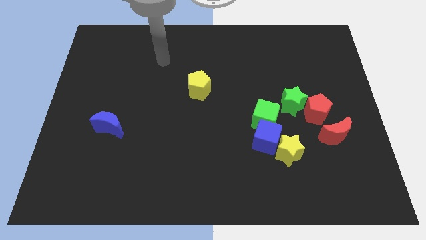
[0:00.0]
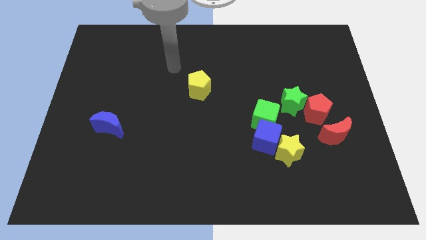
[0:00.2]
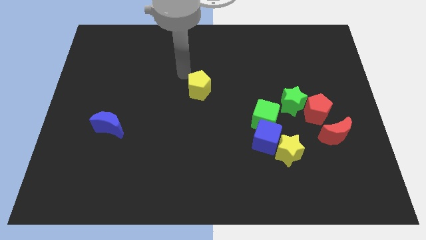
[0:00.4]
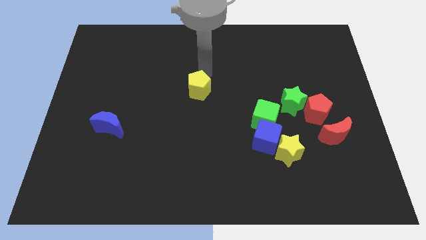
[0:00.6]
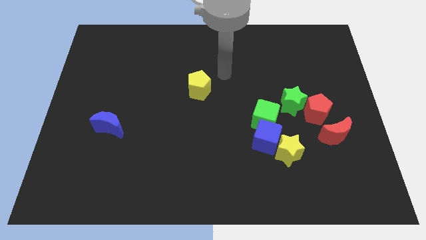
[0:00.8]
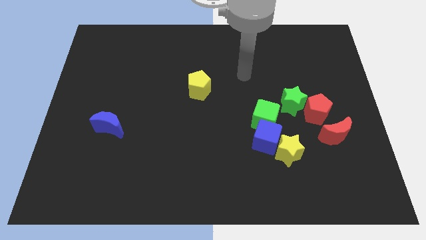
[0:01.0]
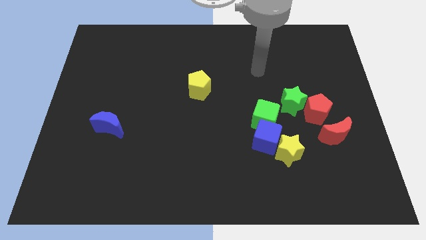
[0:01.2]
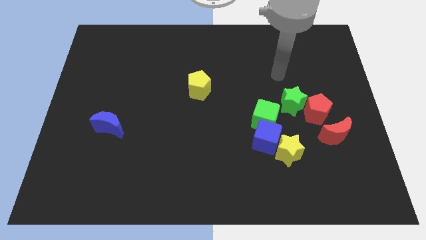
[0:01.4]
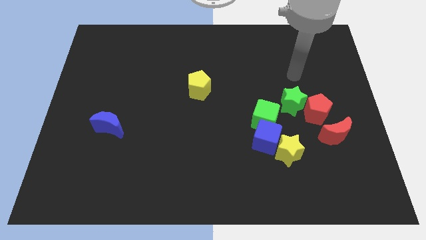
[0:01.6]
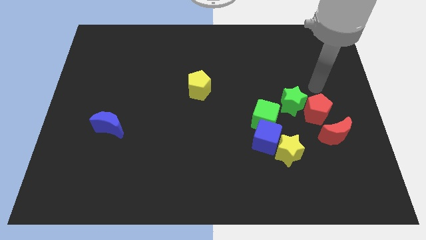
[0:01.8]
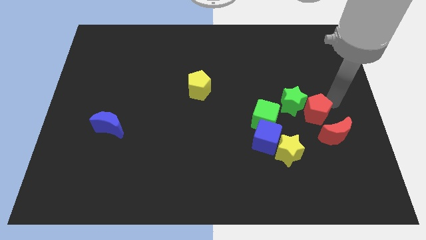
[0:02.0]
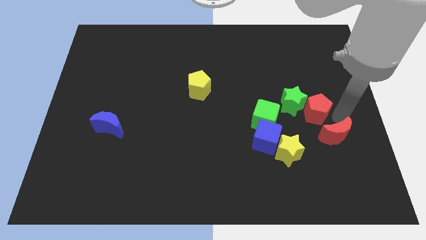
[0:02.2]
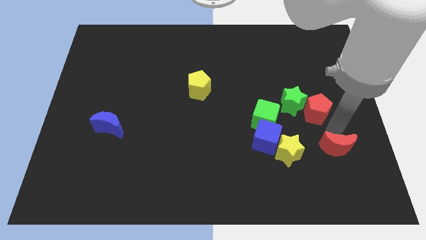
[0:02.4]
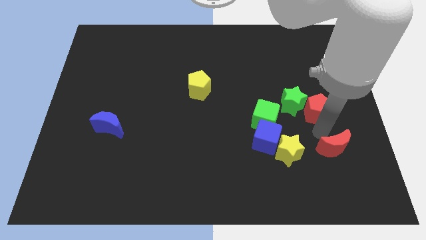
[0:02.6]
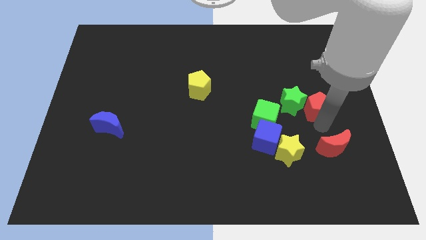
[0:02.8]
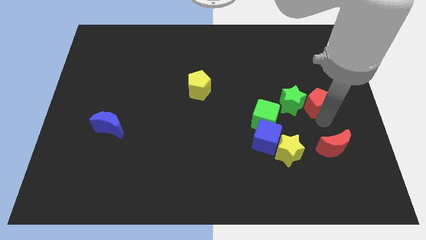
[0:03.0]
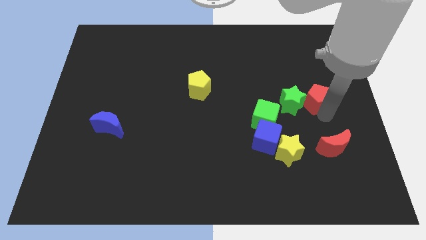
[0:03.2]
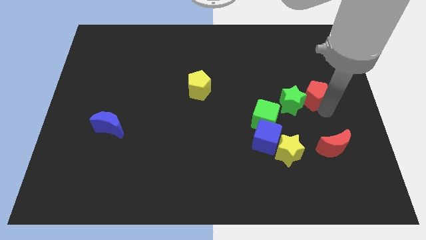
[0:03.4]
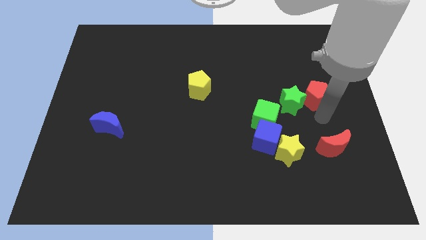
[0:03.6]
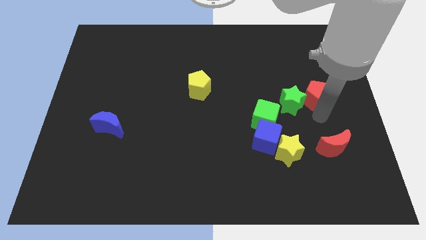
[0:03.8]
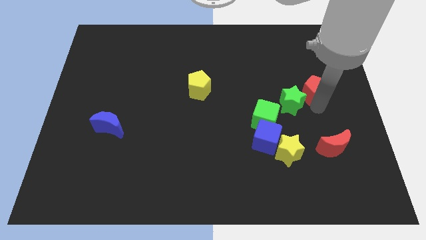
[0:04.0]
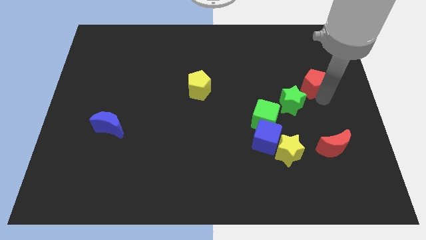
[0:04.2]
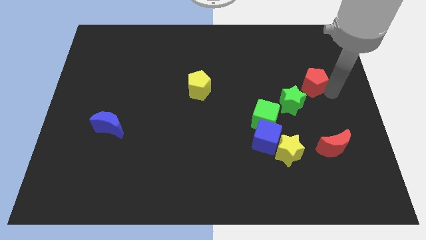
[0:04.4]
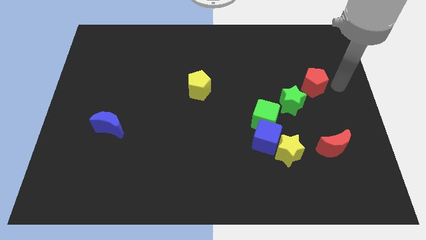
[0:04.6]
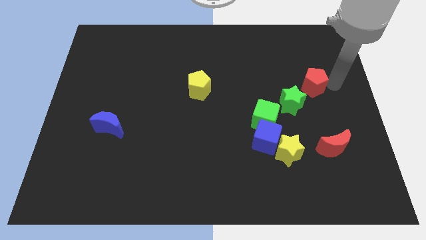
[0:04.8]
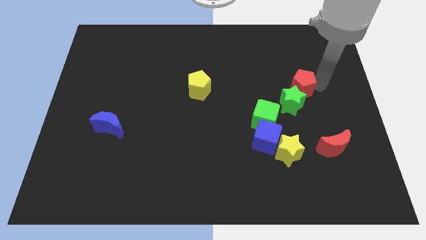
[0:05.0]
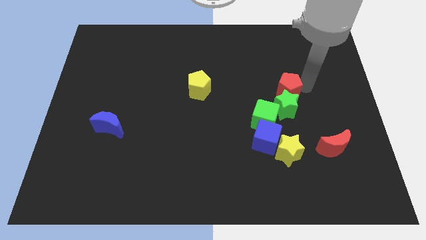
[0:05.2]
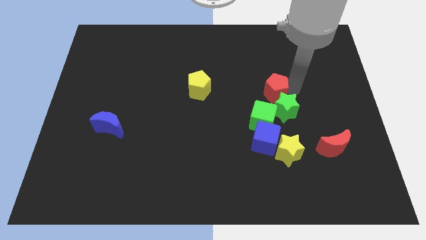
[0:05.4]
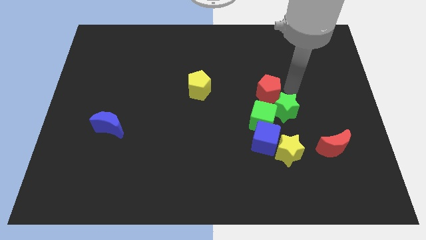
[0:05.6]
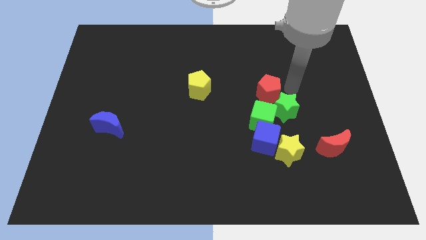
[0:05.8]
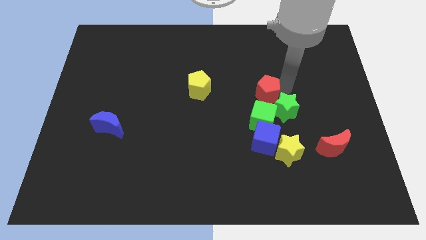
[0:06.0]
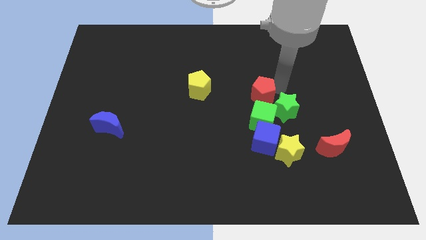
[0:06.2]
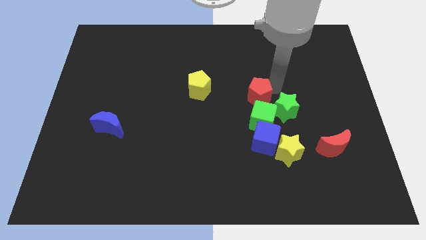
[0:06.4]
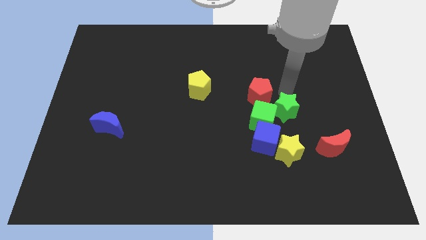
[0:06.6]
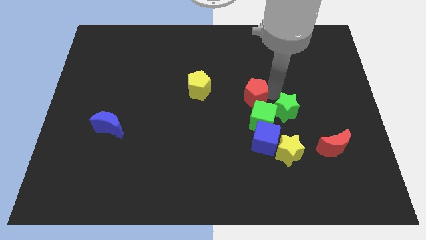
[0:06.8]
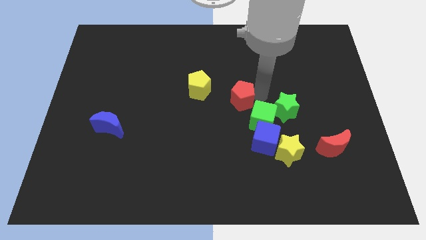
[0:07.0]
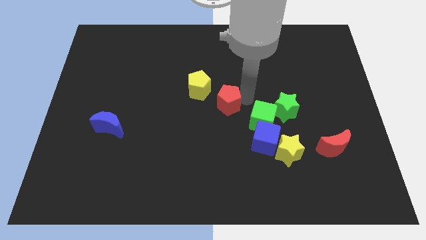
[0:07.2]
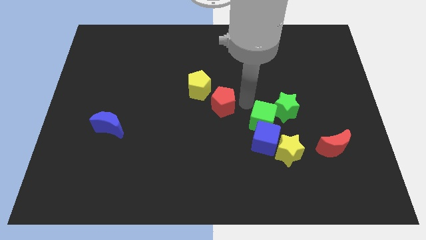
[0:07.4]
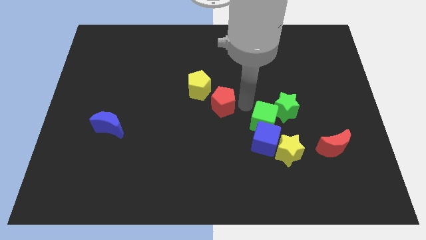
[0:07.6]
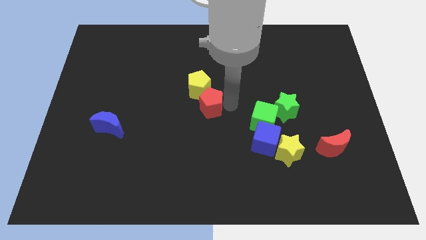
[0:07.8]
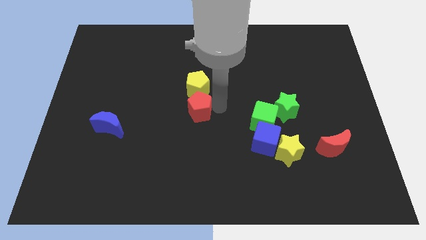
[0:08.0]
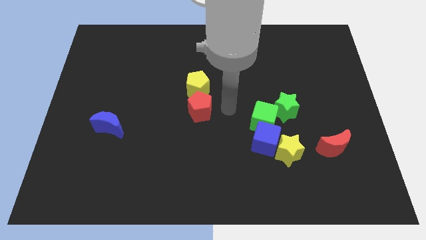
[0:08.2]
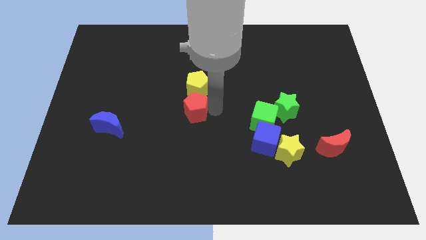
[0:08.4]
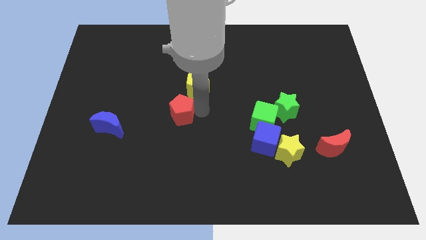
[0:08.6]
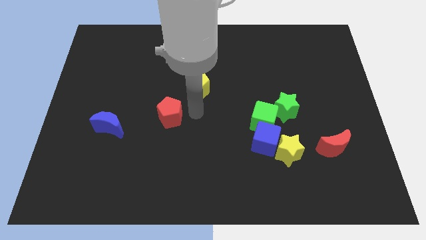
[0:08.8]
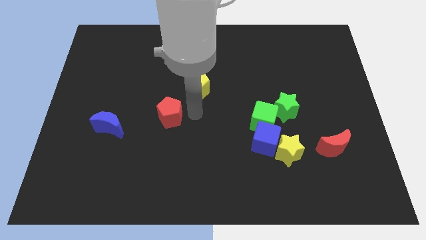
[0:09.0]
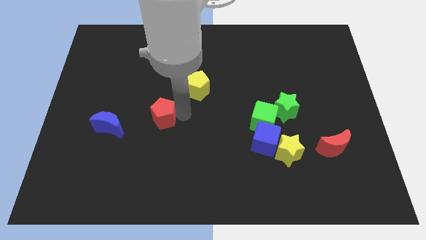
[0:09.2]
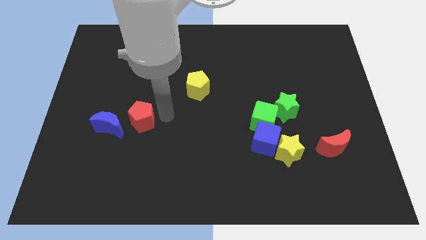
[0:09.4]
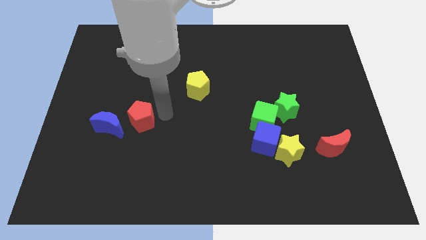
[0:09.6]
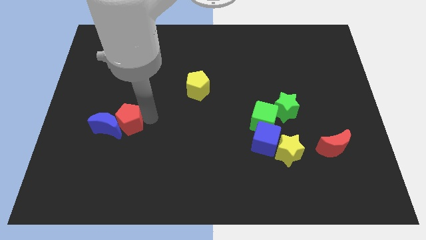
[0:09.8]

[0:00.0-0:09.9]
move the red pentagon towards the blue moon

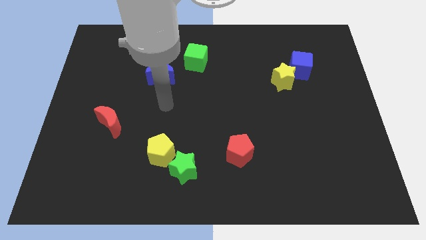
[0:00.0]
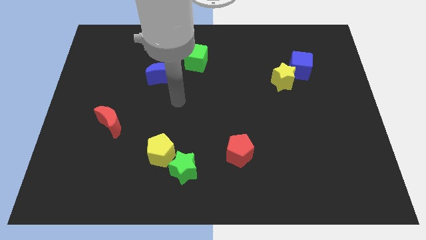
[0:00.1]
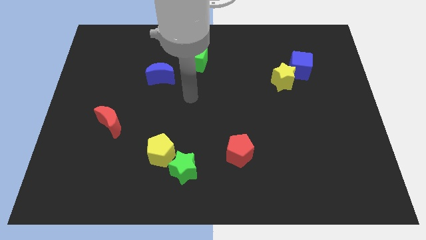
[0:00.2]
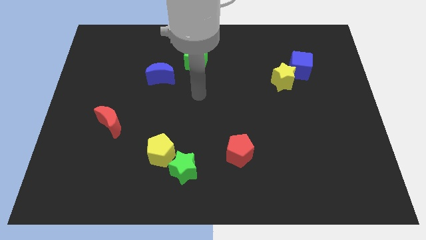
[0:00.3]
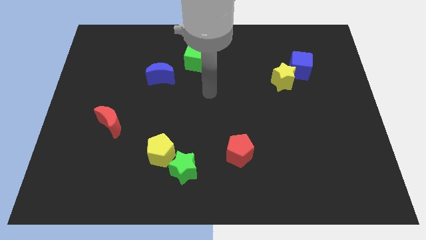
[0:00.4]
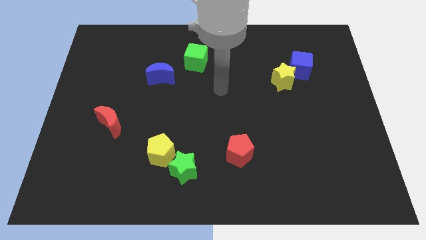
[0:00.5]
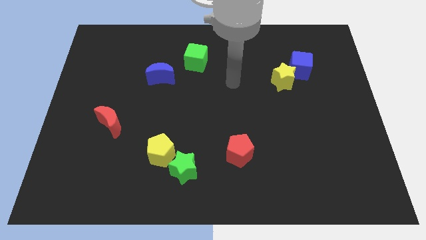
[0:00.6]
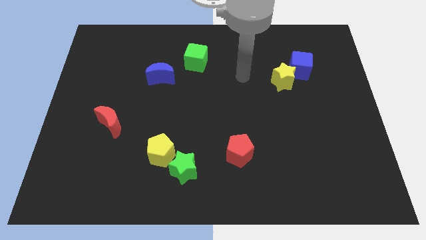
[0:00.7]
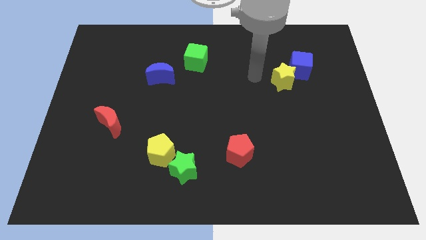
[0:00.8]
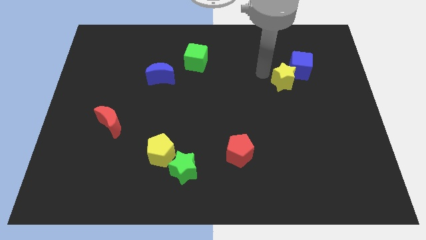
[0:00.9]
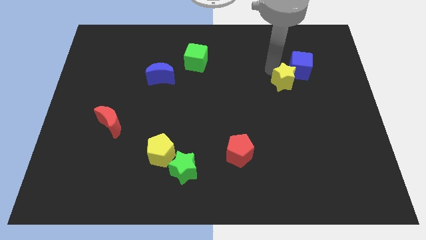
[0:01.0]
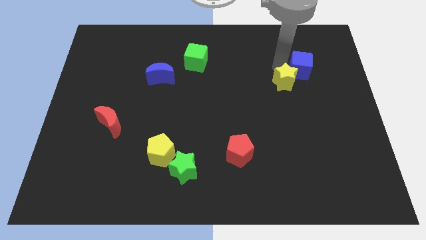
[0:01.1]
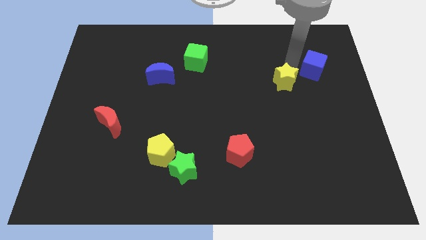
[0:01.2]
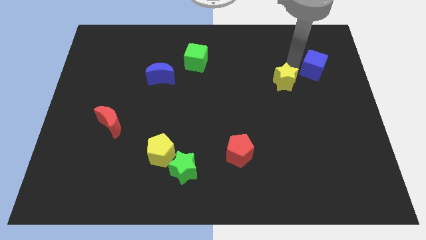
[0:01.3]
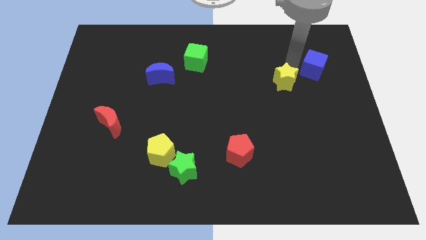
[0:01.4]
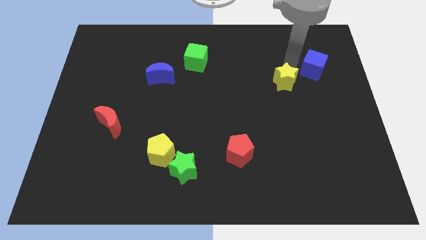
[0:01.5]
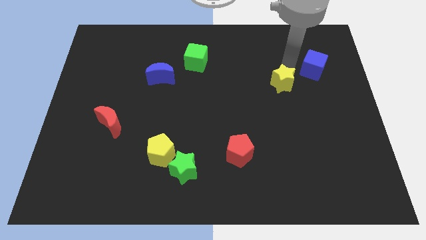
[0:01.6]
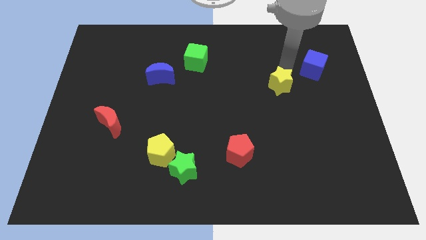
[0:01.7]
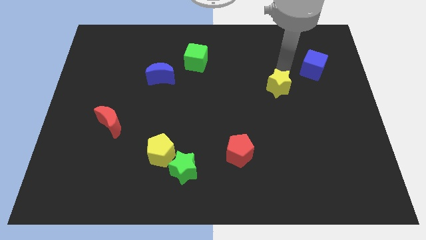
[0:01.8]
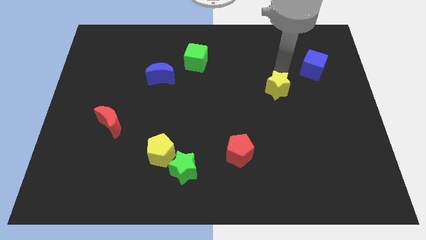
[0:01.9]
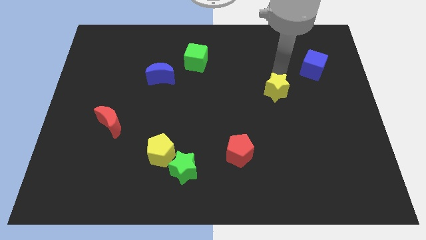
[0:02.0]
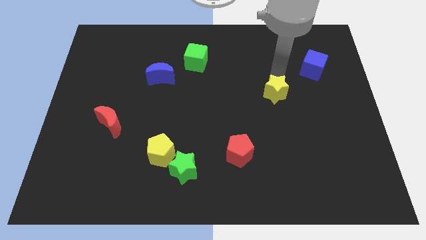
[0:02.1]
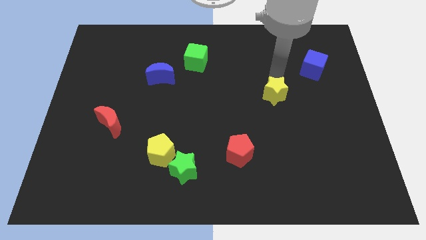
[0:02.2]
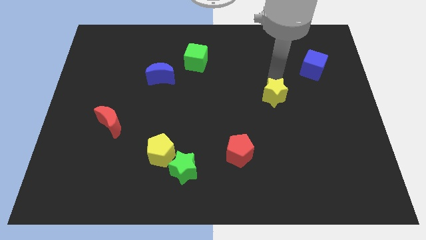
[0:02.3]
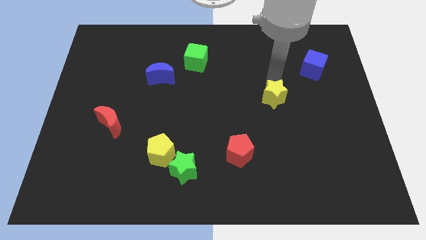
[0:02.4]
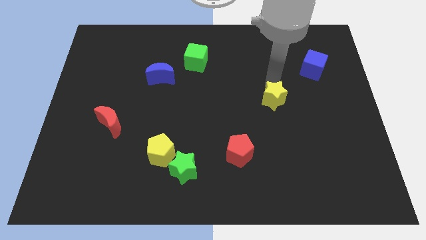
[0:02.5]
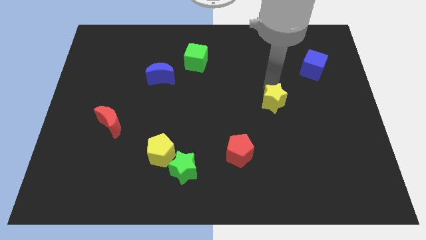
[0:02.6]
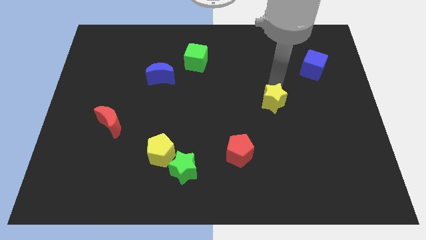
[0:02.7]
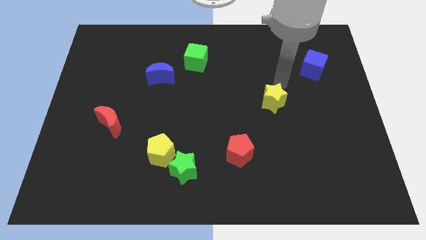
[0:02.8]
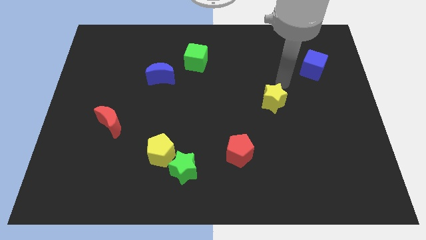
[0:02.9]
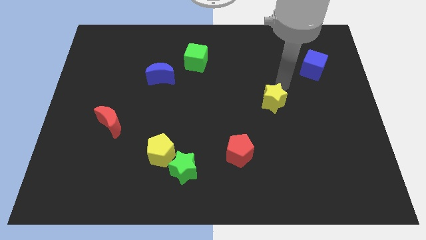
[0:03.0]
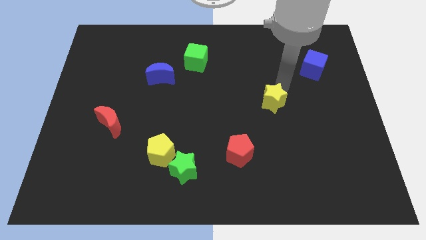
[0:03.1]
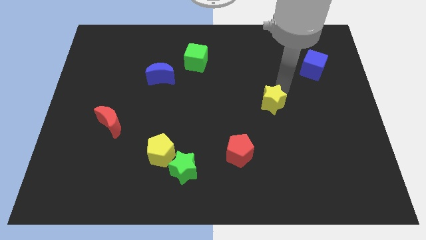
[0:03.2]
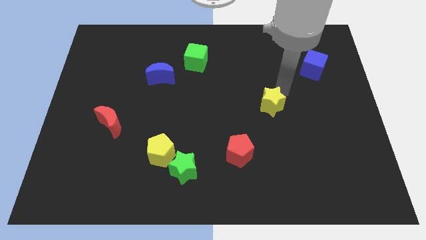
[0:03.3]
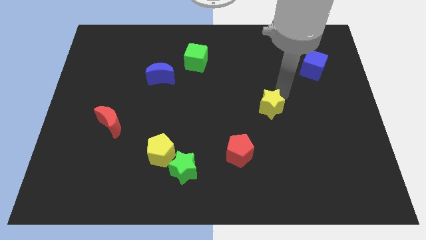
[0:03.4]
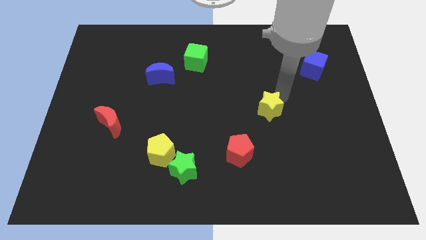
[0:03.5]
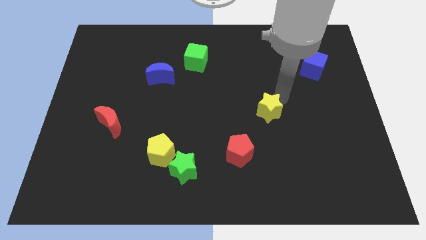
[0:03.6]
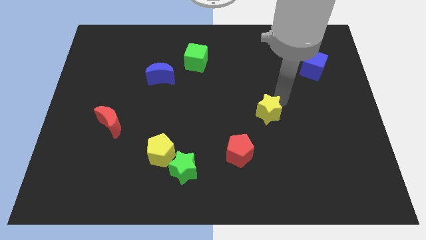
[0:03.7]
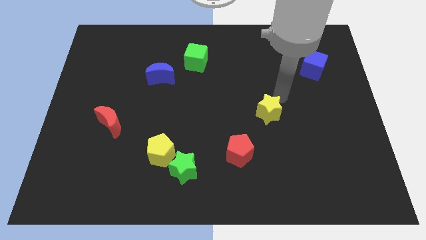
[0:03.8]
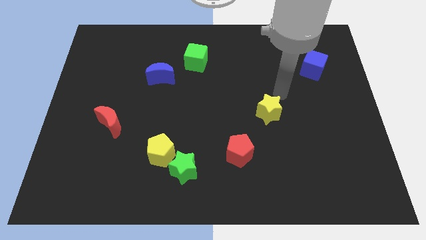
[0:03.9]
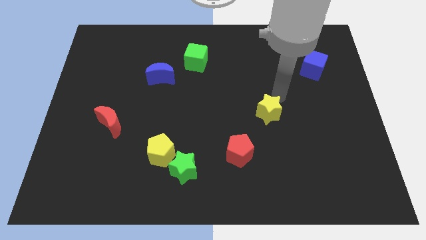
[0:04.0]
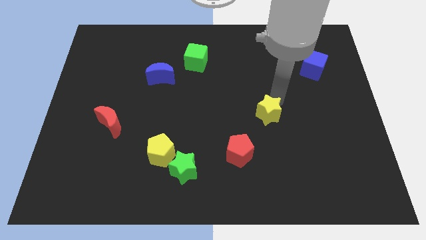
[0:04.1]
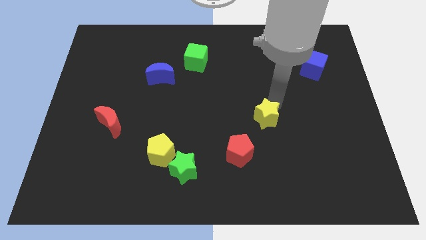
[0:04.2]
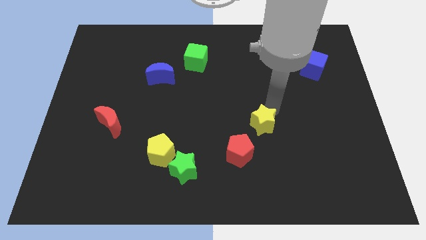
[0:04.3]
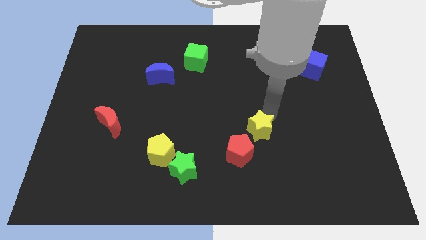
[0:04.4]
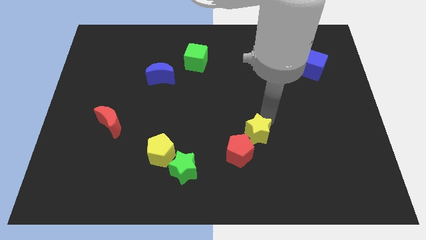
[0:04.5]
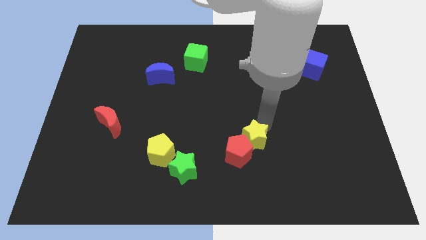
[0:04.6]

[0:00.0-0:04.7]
push the yellow star next to the red pentagon
